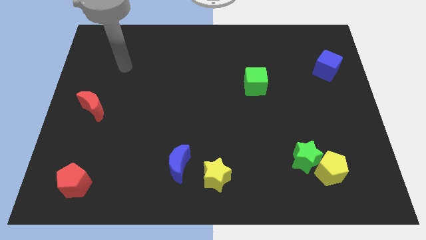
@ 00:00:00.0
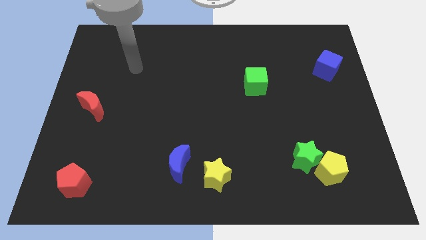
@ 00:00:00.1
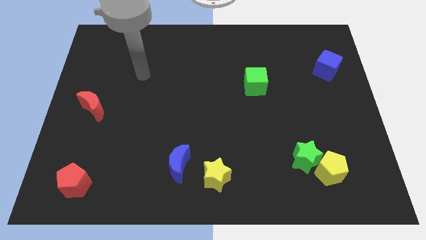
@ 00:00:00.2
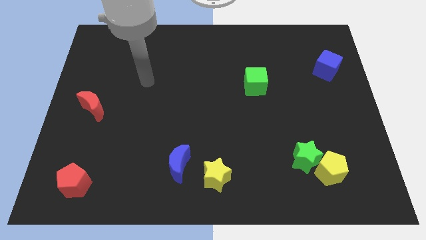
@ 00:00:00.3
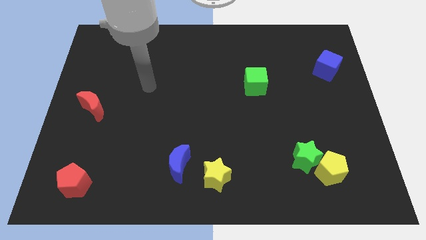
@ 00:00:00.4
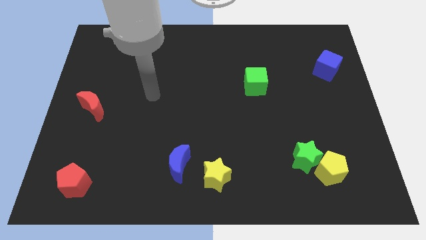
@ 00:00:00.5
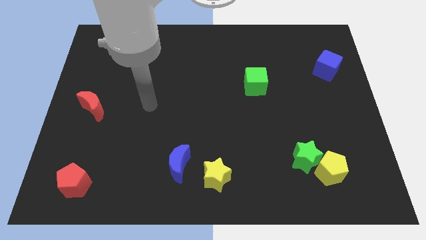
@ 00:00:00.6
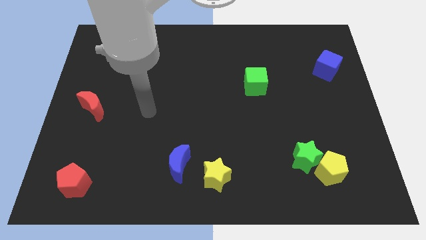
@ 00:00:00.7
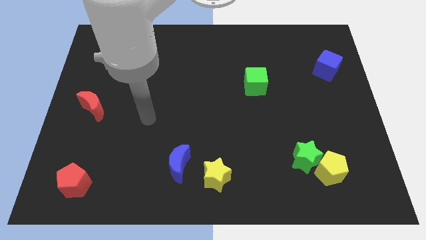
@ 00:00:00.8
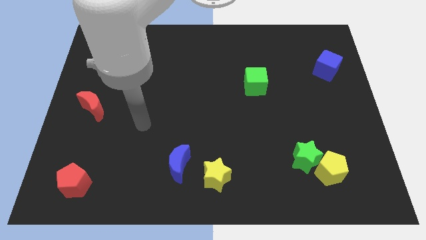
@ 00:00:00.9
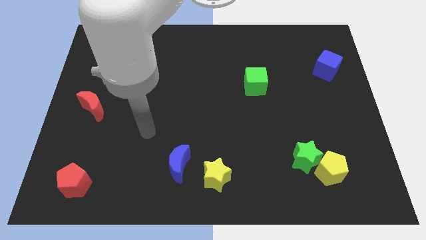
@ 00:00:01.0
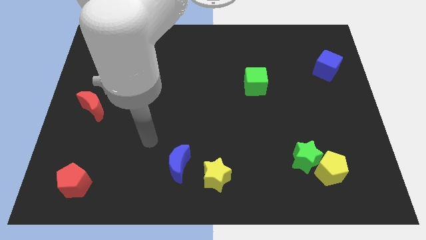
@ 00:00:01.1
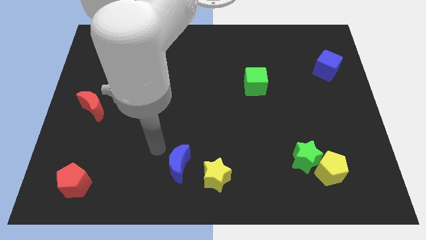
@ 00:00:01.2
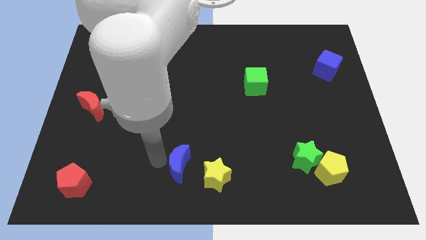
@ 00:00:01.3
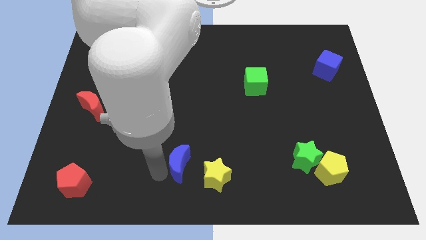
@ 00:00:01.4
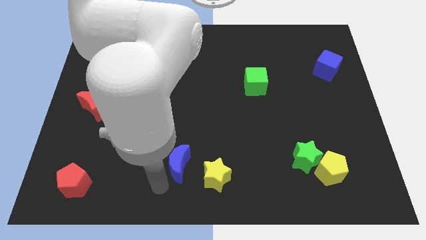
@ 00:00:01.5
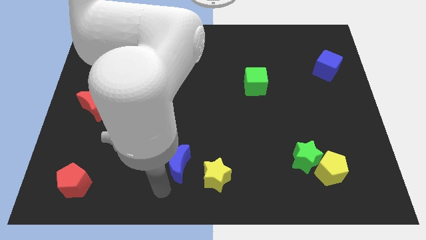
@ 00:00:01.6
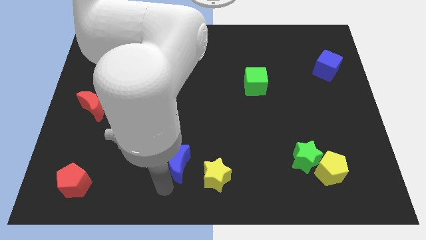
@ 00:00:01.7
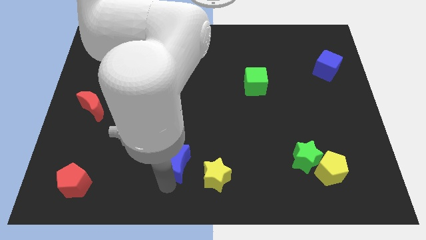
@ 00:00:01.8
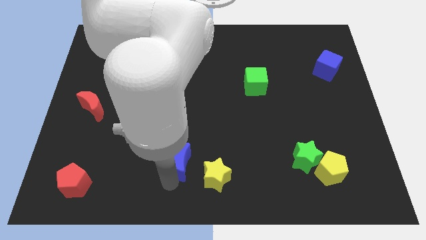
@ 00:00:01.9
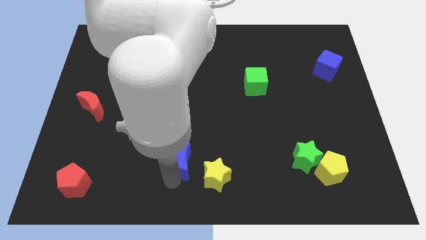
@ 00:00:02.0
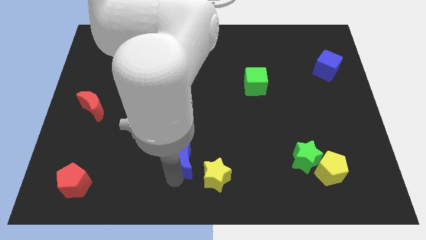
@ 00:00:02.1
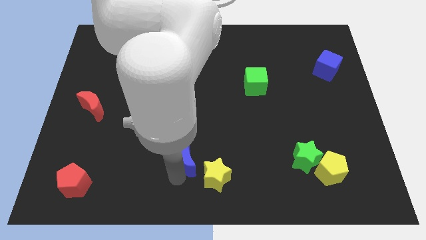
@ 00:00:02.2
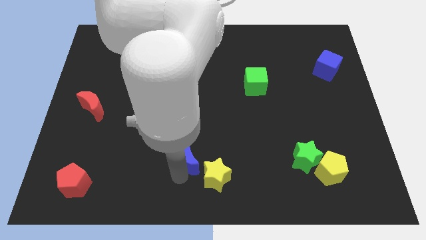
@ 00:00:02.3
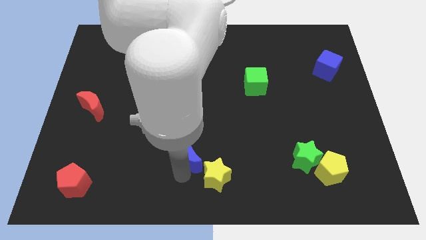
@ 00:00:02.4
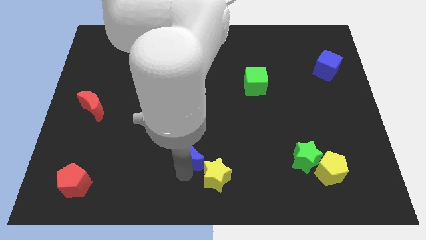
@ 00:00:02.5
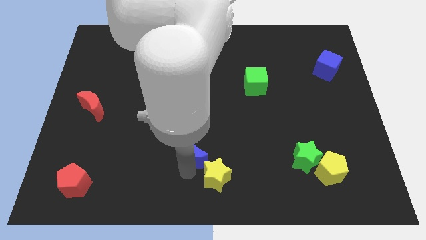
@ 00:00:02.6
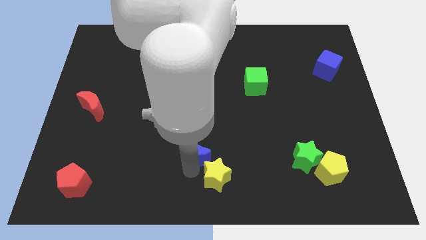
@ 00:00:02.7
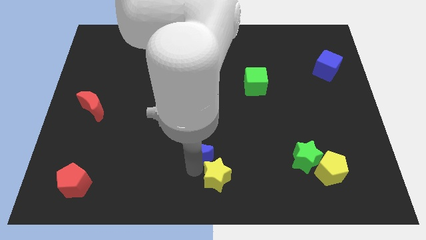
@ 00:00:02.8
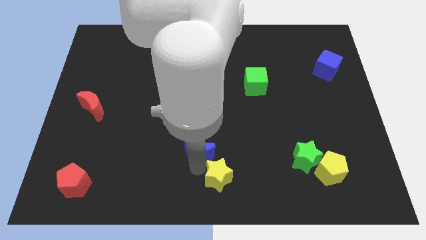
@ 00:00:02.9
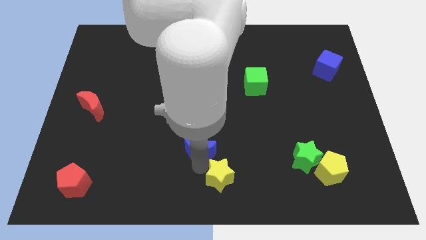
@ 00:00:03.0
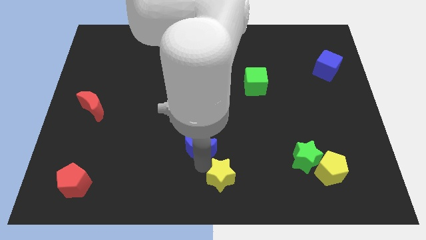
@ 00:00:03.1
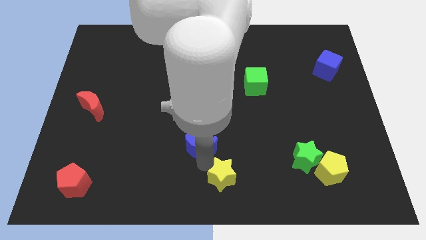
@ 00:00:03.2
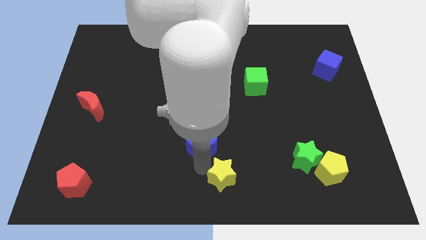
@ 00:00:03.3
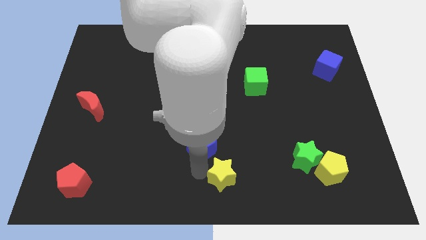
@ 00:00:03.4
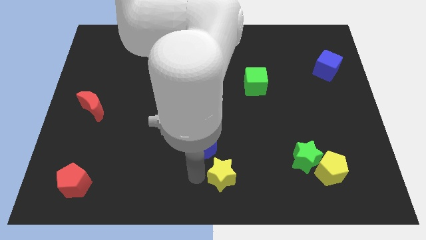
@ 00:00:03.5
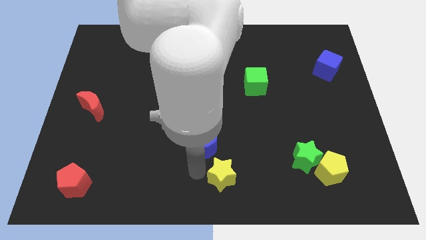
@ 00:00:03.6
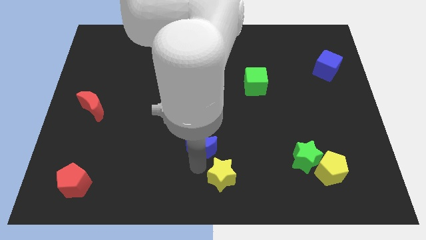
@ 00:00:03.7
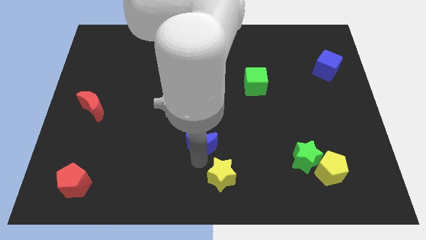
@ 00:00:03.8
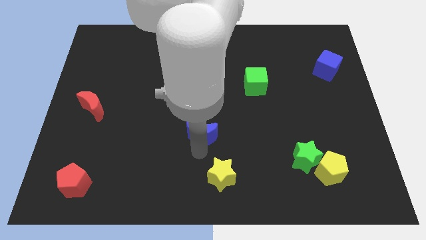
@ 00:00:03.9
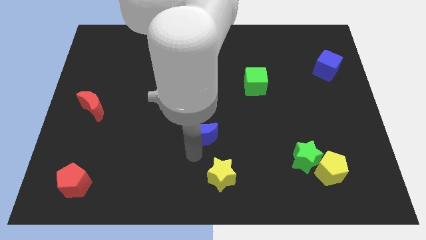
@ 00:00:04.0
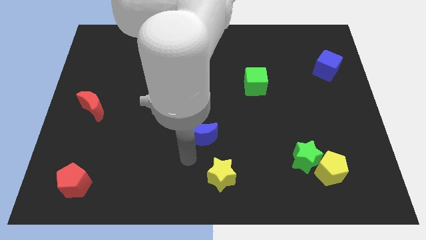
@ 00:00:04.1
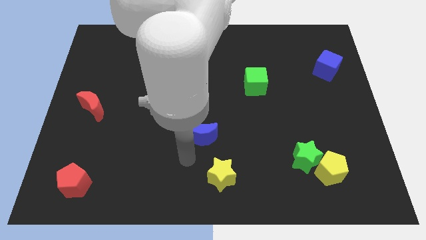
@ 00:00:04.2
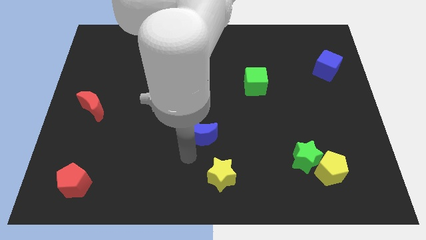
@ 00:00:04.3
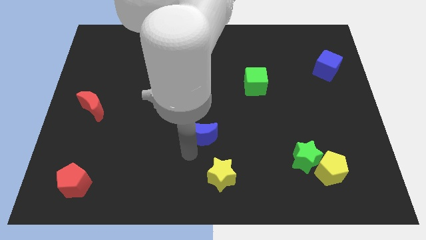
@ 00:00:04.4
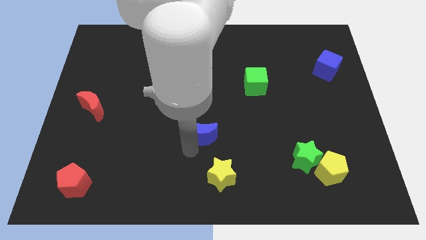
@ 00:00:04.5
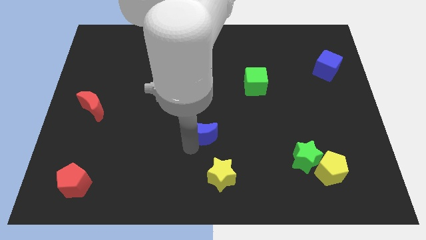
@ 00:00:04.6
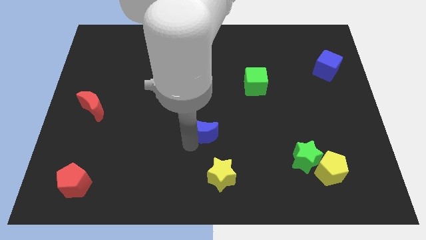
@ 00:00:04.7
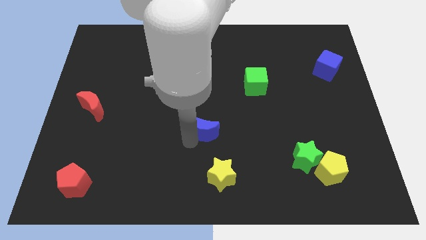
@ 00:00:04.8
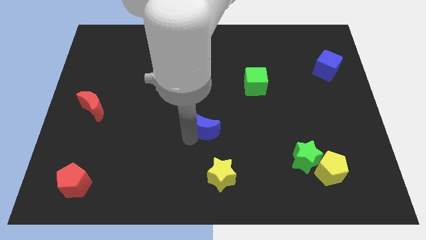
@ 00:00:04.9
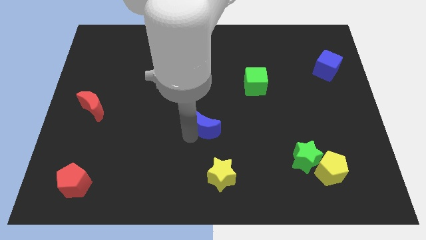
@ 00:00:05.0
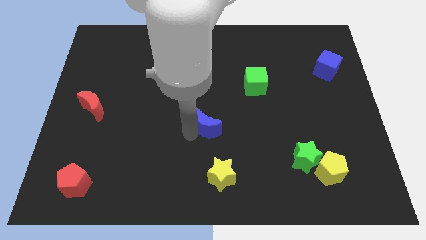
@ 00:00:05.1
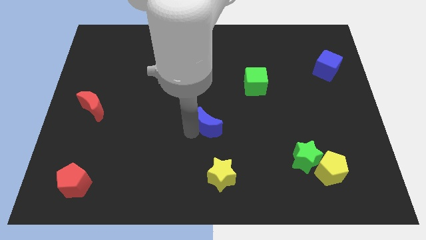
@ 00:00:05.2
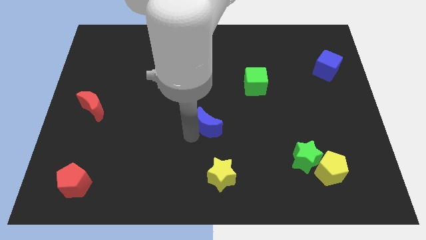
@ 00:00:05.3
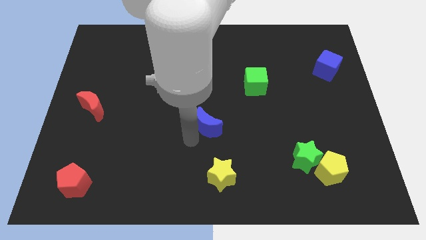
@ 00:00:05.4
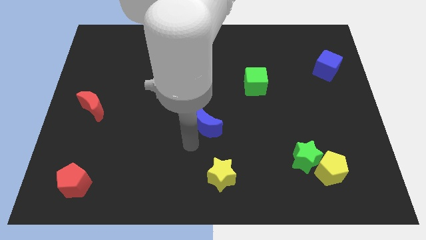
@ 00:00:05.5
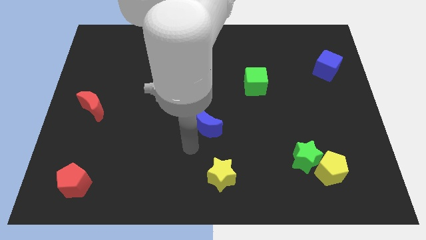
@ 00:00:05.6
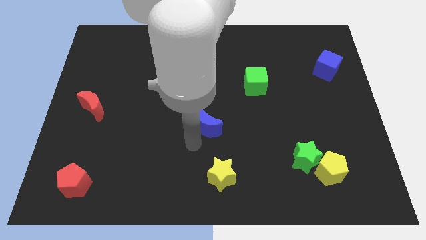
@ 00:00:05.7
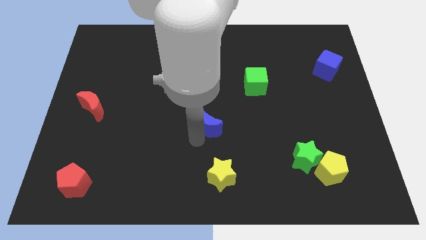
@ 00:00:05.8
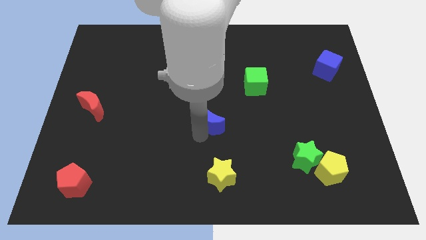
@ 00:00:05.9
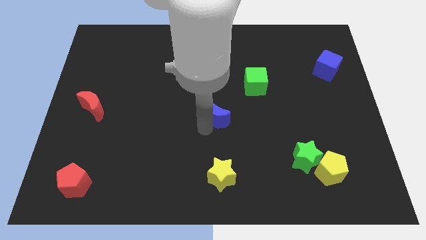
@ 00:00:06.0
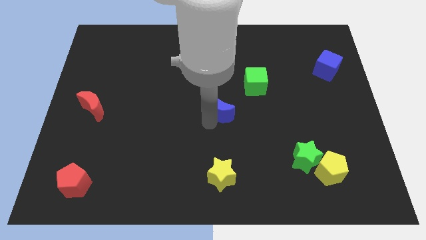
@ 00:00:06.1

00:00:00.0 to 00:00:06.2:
slide the blue moon diagonally down and to the left of the green cube
